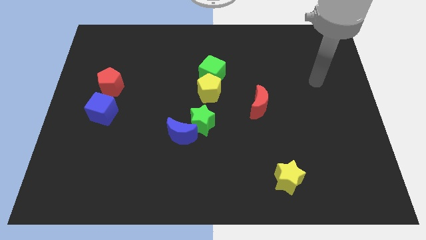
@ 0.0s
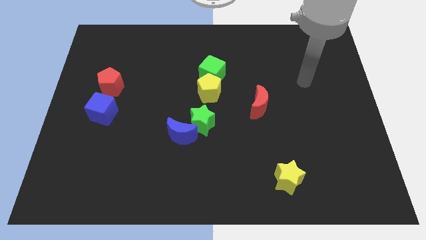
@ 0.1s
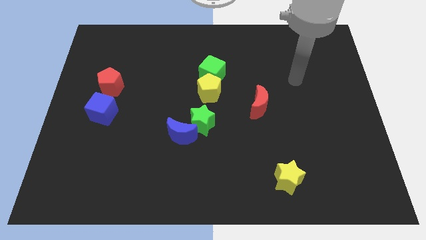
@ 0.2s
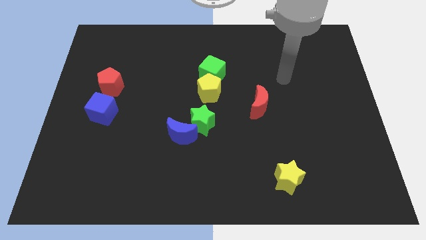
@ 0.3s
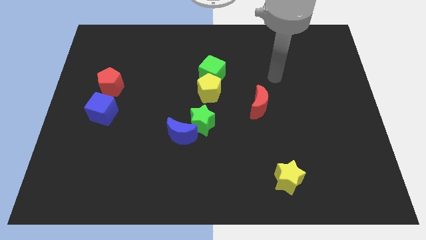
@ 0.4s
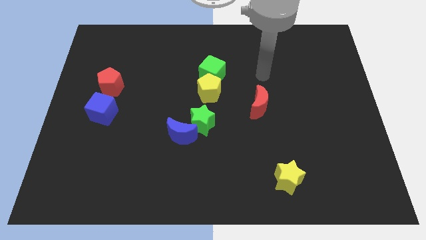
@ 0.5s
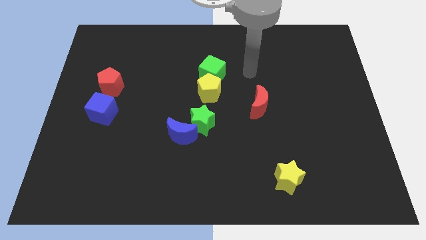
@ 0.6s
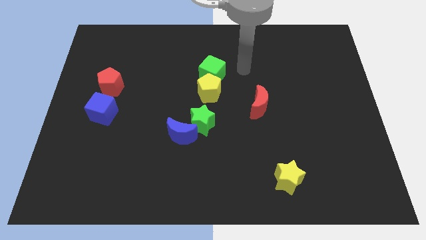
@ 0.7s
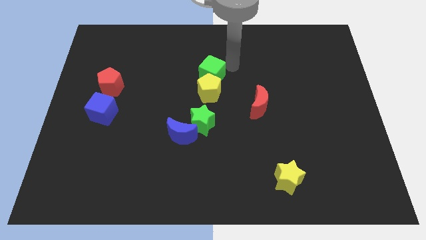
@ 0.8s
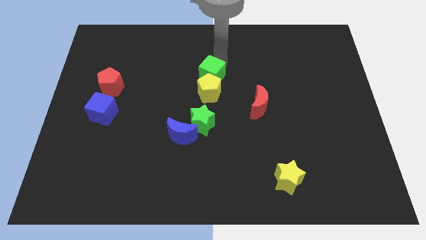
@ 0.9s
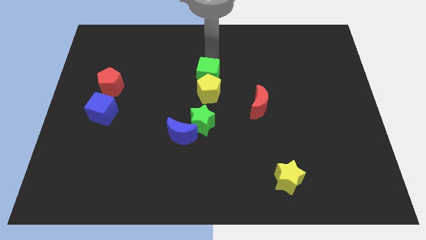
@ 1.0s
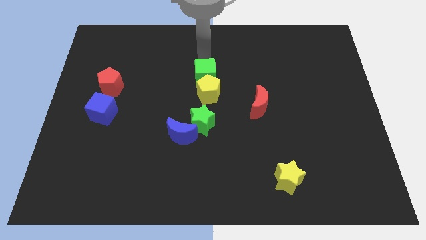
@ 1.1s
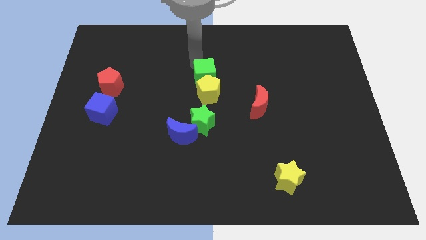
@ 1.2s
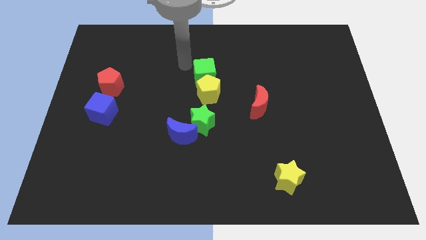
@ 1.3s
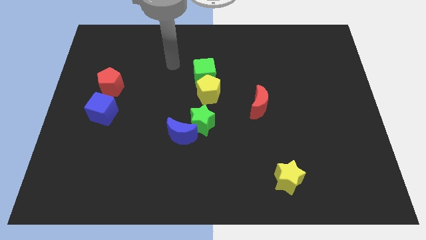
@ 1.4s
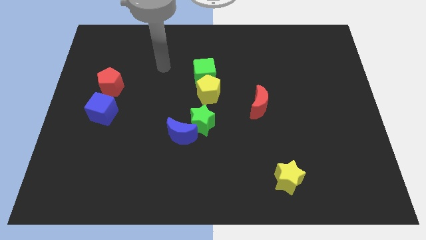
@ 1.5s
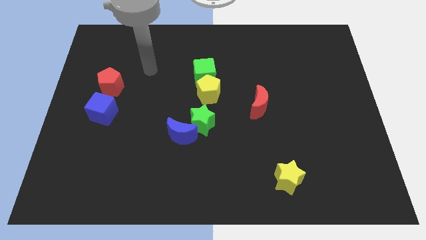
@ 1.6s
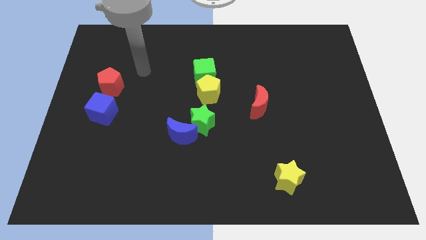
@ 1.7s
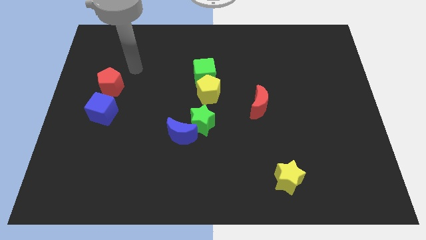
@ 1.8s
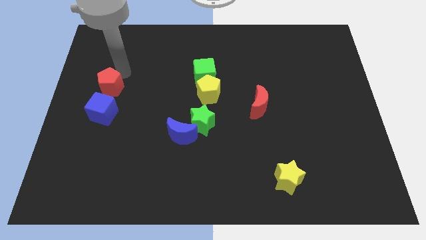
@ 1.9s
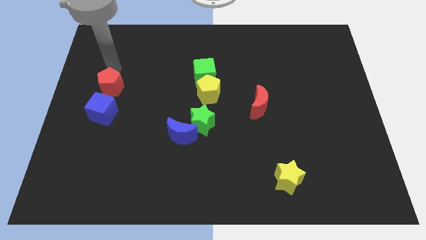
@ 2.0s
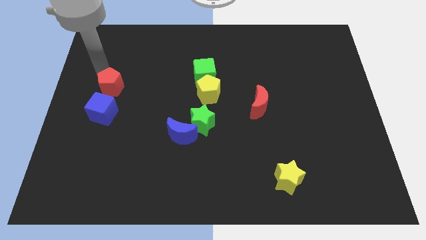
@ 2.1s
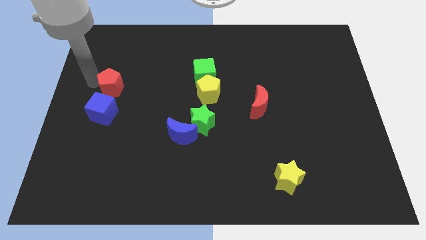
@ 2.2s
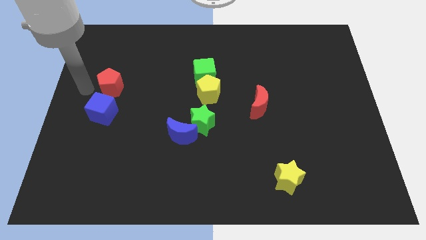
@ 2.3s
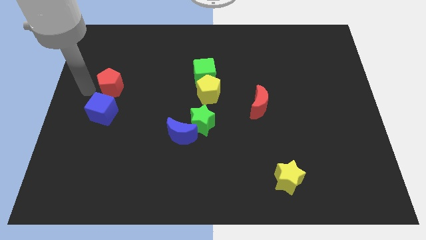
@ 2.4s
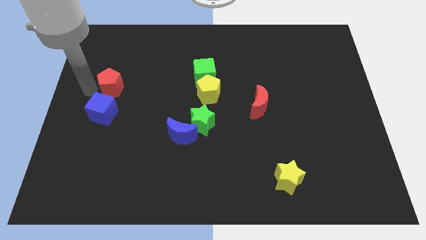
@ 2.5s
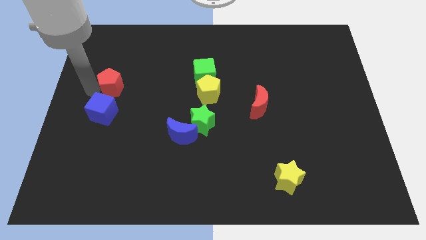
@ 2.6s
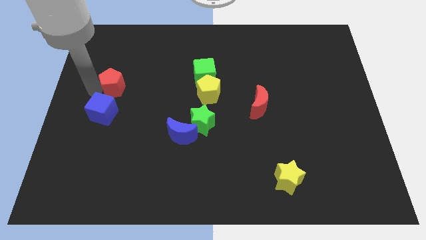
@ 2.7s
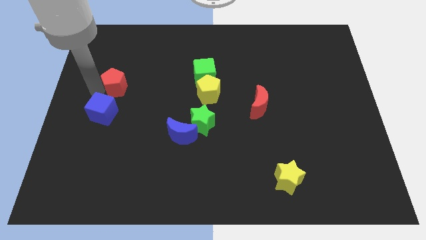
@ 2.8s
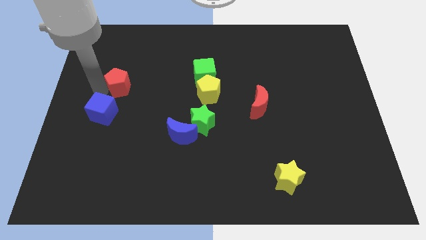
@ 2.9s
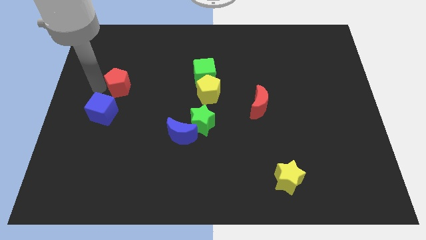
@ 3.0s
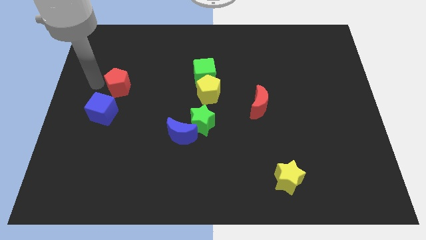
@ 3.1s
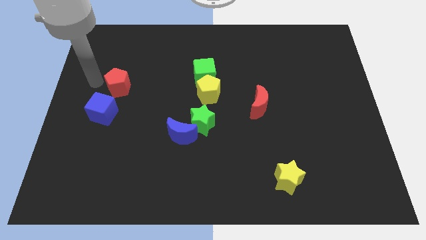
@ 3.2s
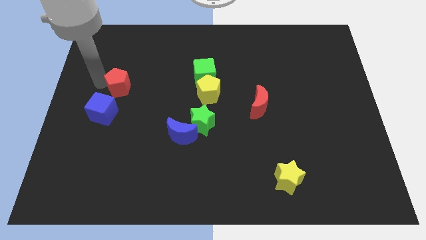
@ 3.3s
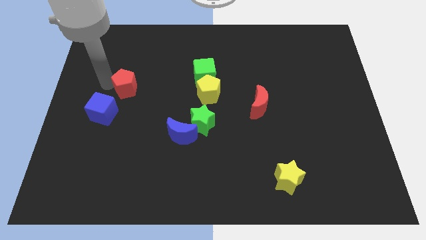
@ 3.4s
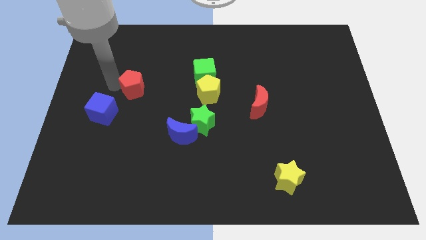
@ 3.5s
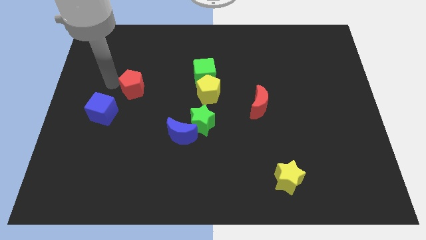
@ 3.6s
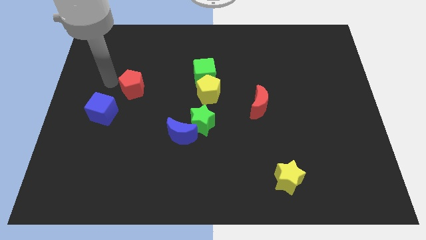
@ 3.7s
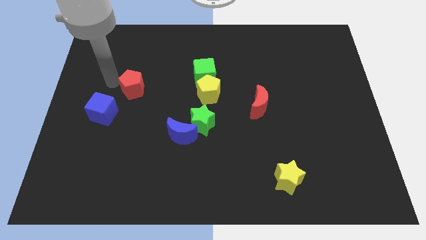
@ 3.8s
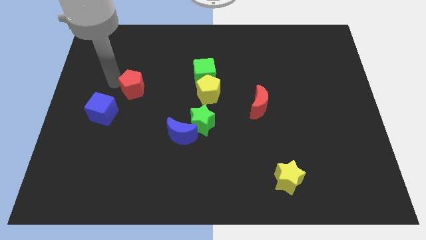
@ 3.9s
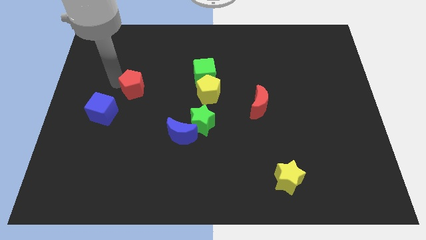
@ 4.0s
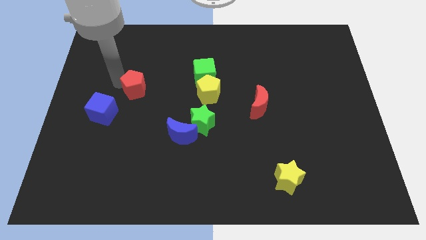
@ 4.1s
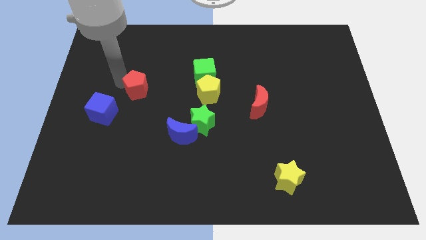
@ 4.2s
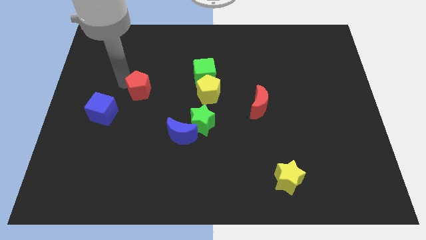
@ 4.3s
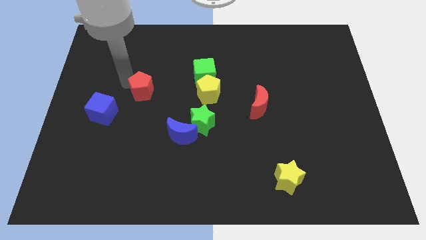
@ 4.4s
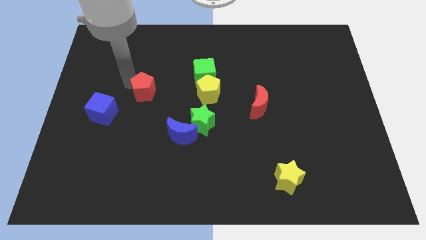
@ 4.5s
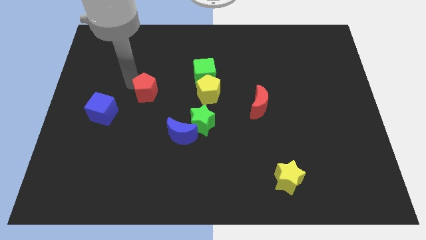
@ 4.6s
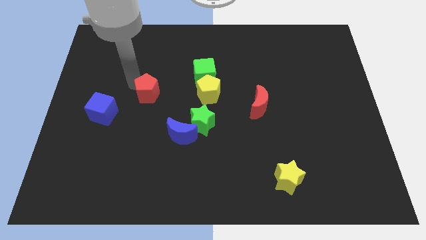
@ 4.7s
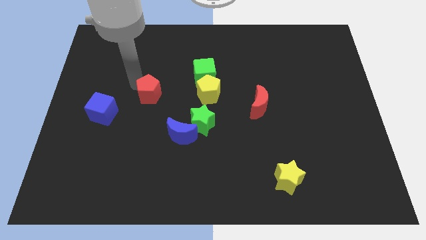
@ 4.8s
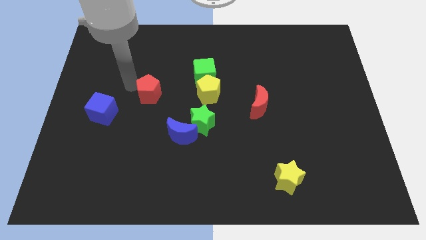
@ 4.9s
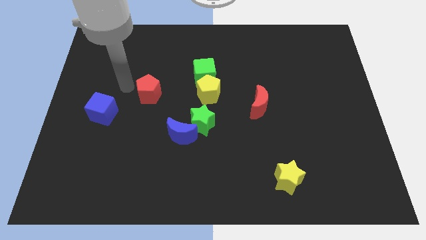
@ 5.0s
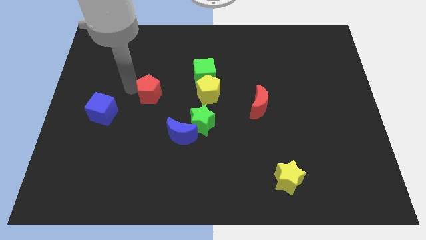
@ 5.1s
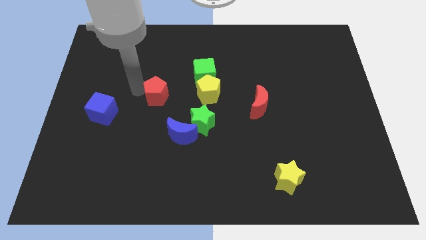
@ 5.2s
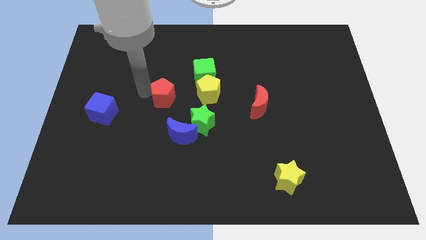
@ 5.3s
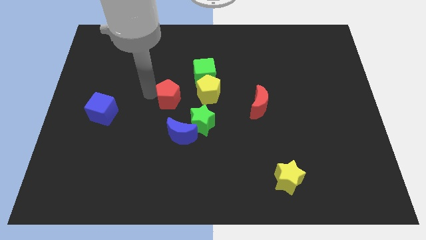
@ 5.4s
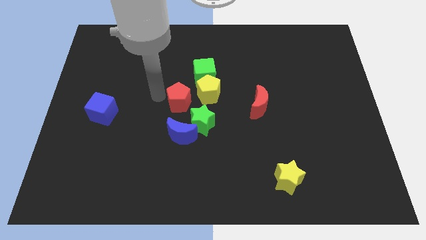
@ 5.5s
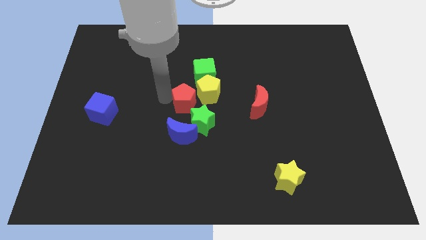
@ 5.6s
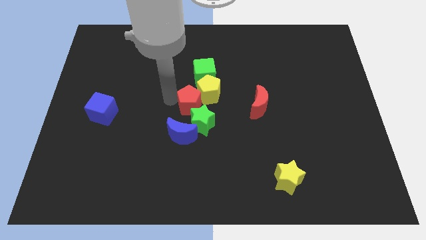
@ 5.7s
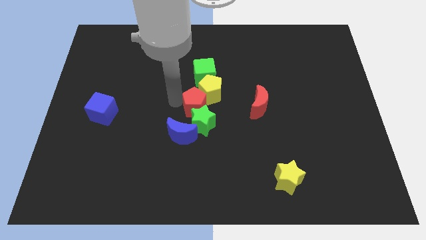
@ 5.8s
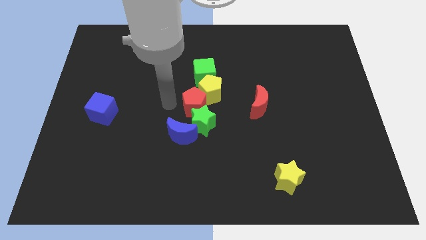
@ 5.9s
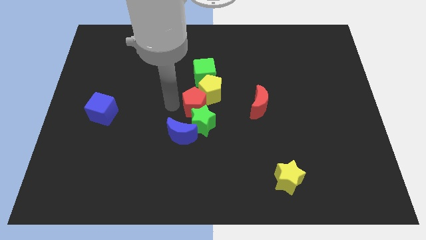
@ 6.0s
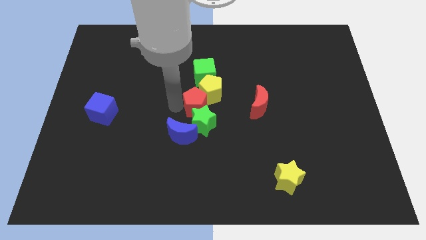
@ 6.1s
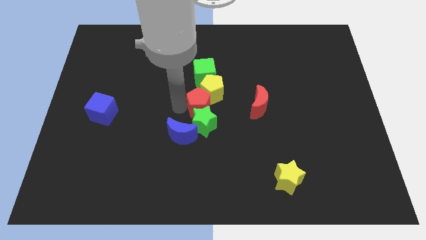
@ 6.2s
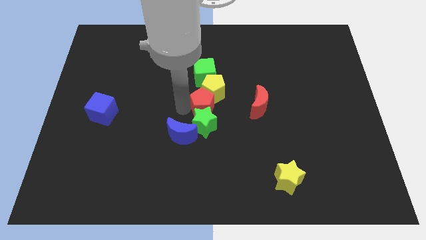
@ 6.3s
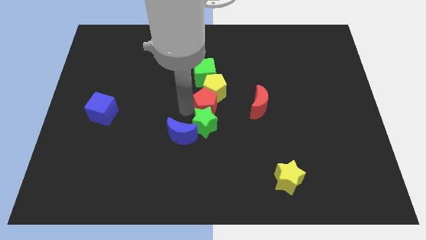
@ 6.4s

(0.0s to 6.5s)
put the red pentagon diagonally down and to the right of the yellow pentagon
